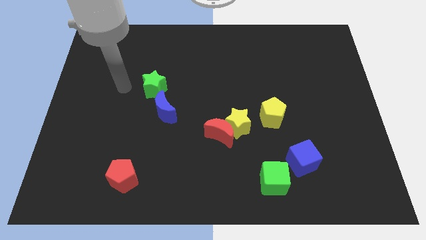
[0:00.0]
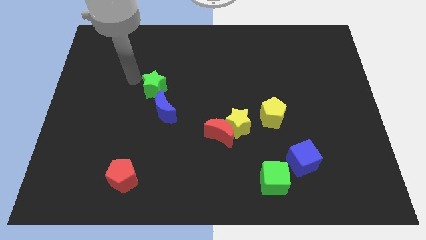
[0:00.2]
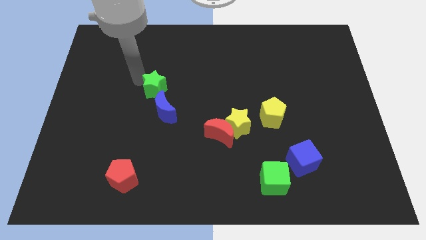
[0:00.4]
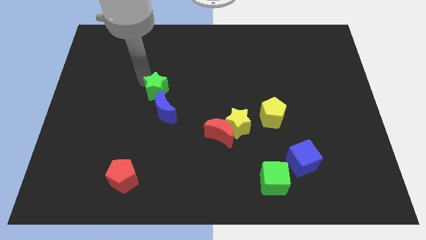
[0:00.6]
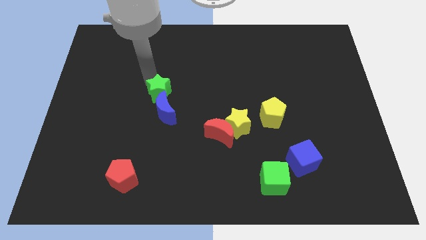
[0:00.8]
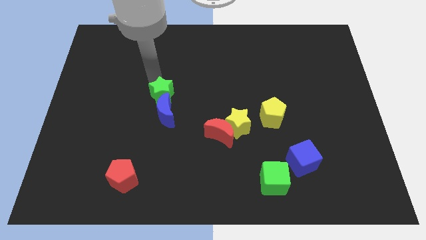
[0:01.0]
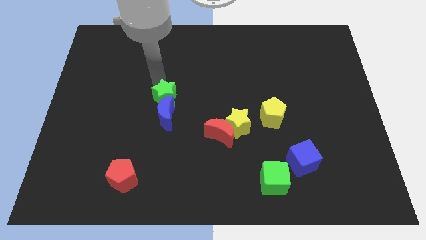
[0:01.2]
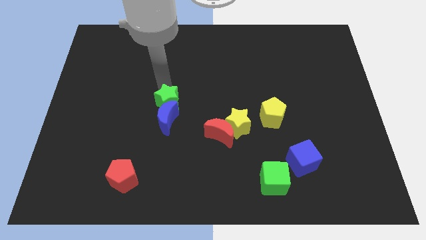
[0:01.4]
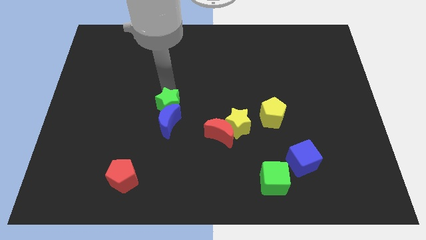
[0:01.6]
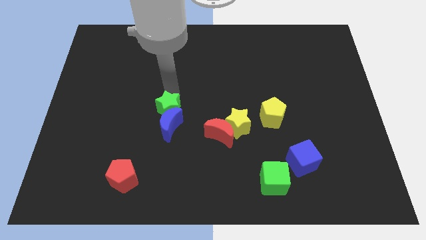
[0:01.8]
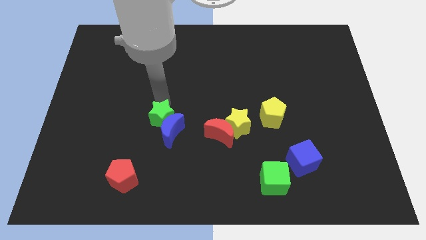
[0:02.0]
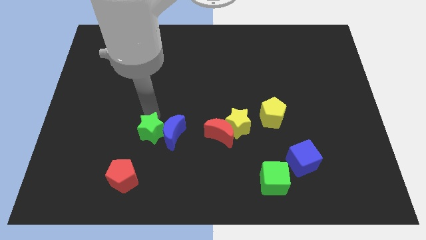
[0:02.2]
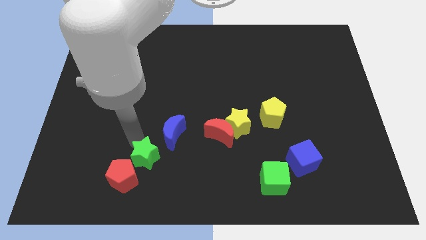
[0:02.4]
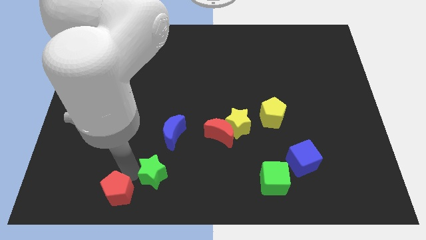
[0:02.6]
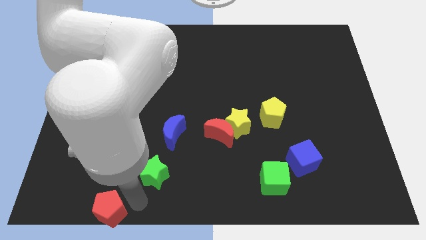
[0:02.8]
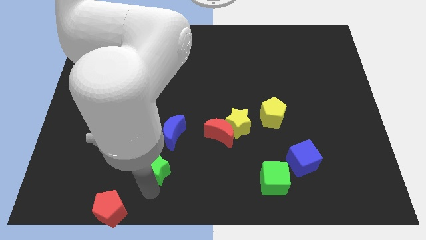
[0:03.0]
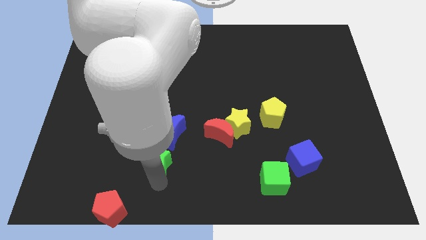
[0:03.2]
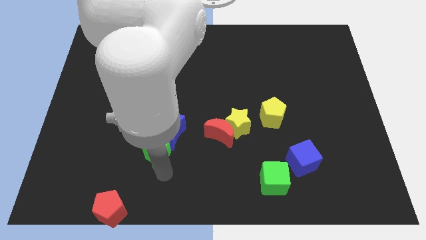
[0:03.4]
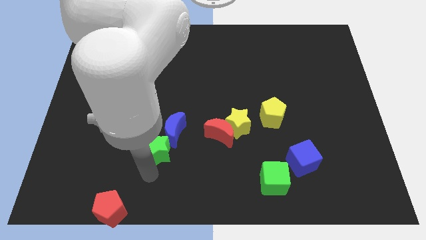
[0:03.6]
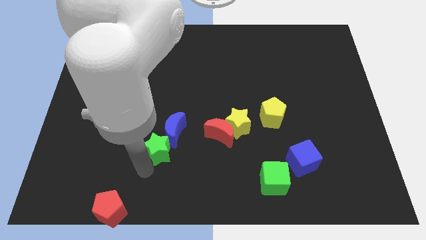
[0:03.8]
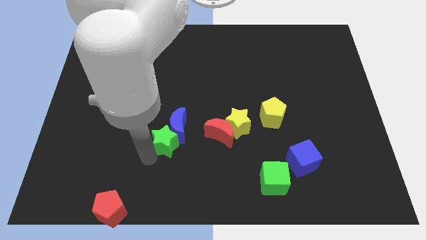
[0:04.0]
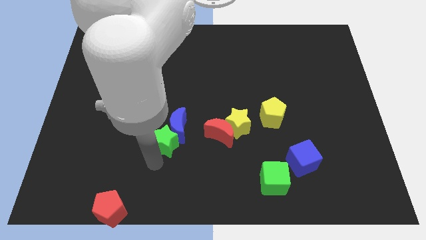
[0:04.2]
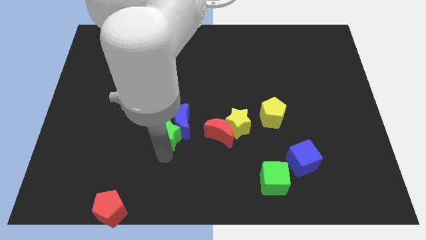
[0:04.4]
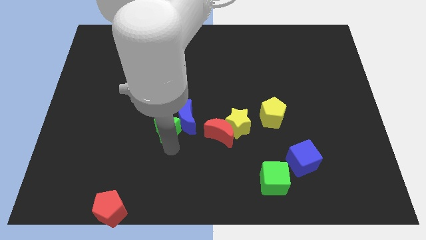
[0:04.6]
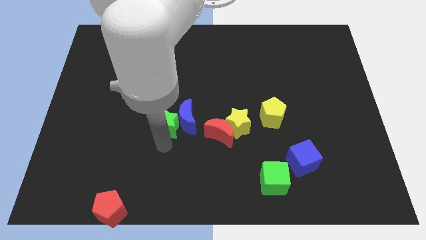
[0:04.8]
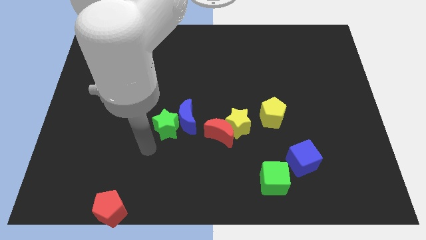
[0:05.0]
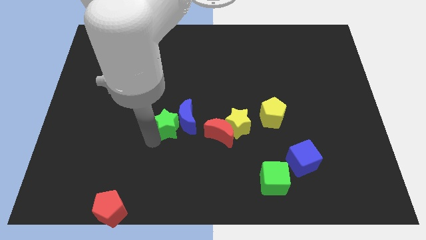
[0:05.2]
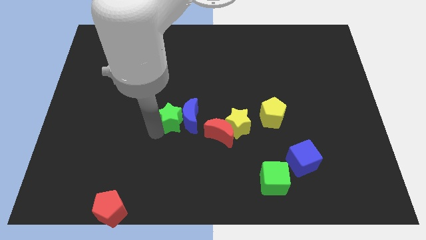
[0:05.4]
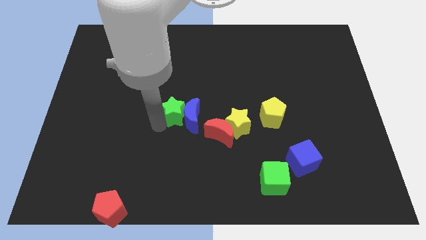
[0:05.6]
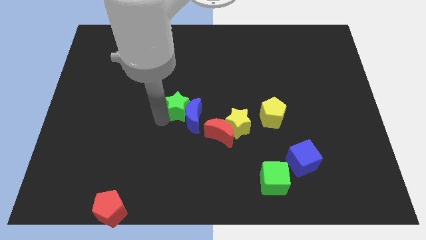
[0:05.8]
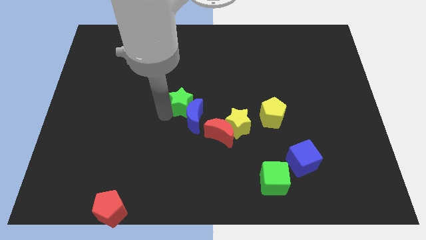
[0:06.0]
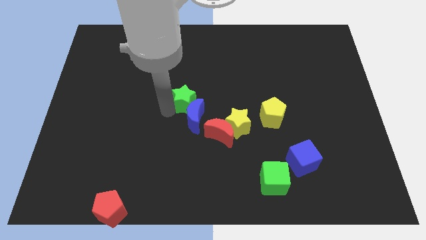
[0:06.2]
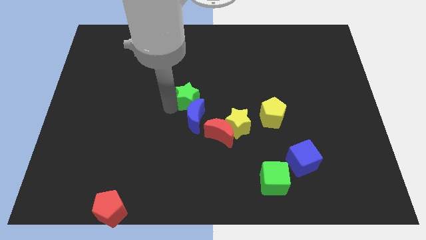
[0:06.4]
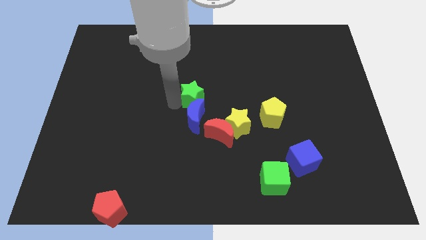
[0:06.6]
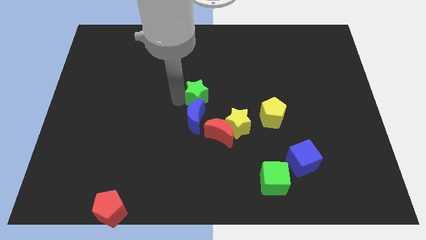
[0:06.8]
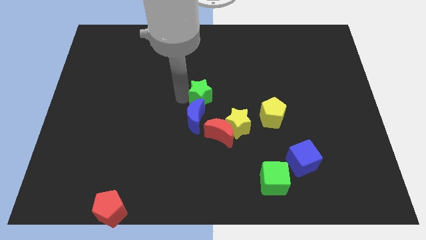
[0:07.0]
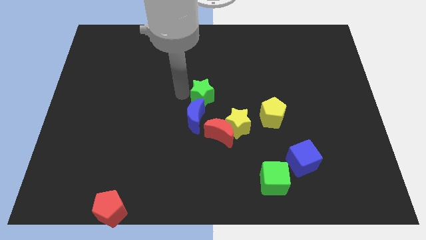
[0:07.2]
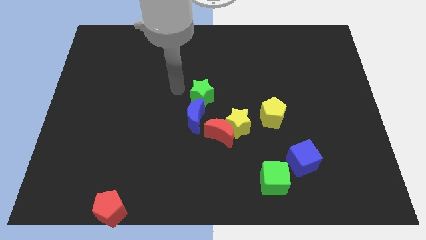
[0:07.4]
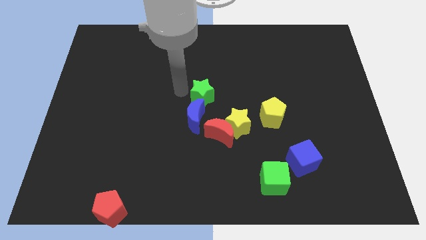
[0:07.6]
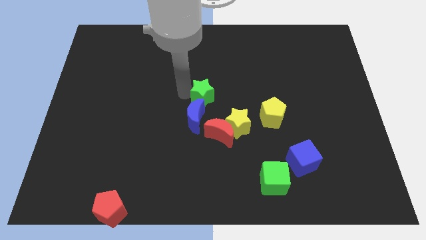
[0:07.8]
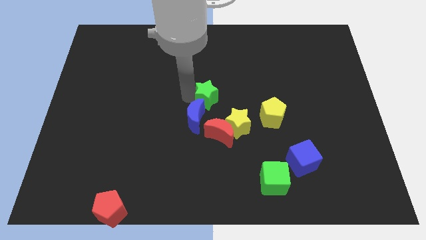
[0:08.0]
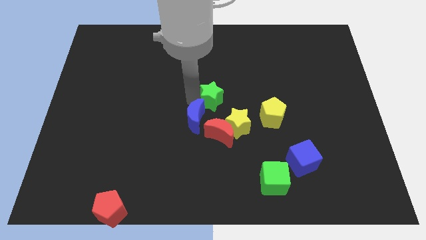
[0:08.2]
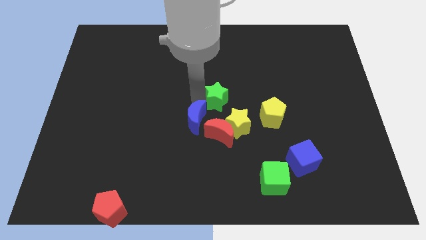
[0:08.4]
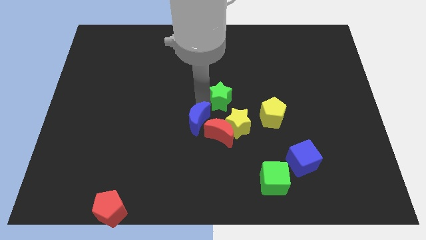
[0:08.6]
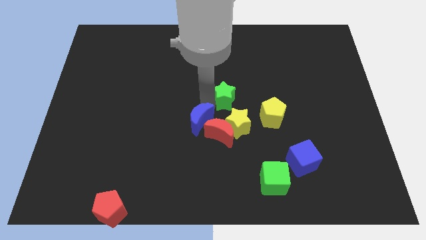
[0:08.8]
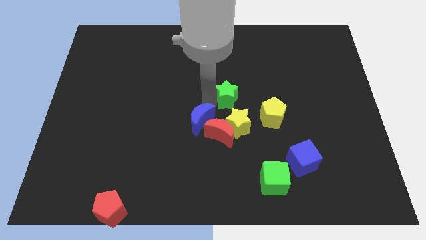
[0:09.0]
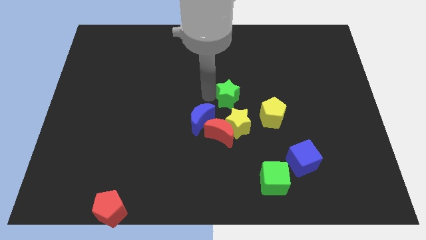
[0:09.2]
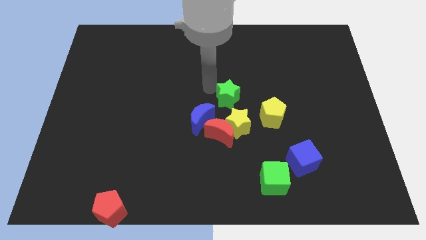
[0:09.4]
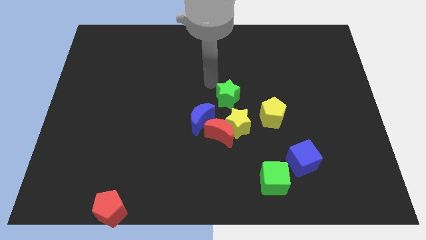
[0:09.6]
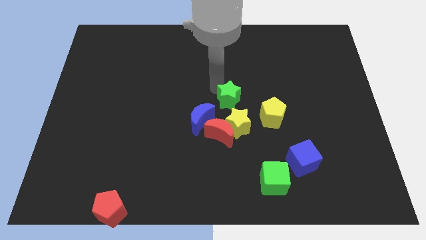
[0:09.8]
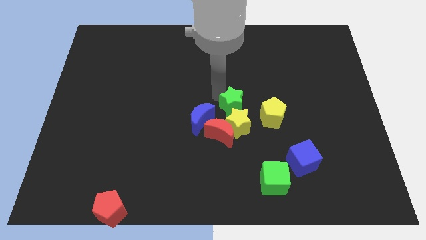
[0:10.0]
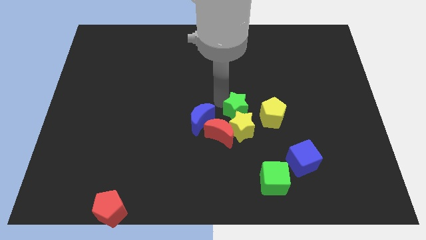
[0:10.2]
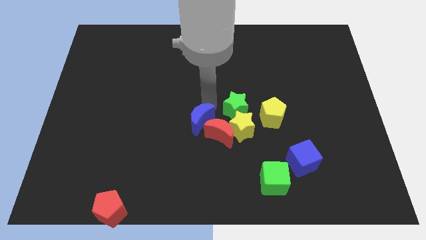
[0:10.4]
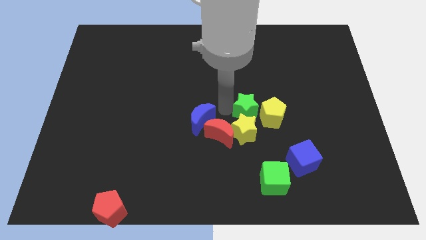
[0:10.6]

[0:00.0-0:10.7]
push the green star to the yellow pentagon

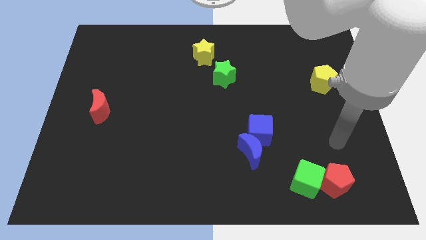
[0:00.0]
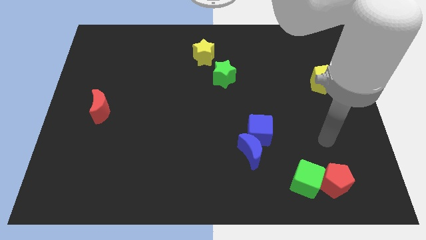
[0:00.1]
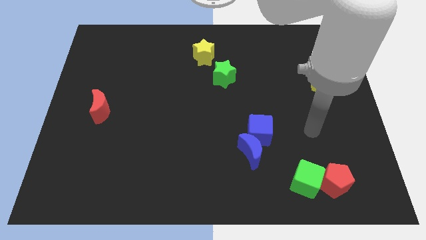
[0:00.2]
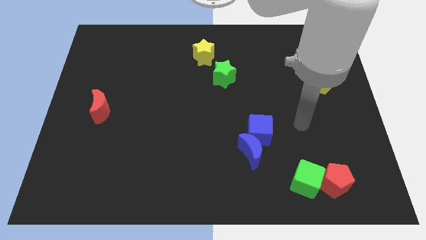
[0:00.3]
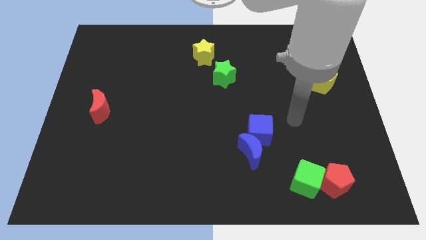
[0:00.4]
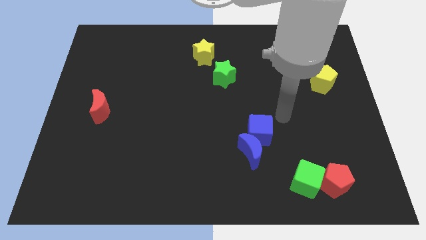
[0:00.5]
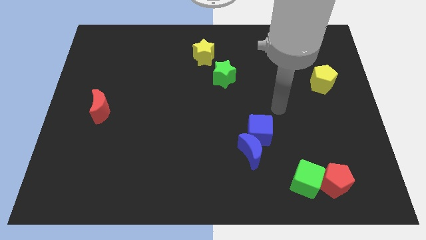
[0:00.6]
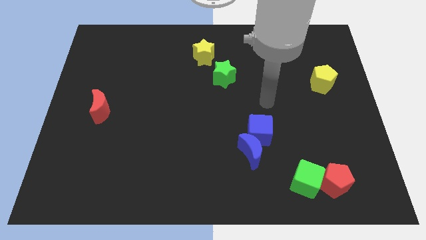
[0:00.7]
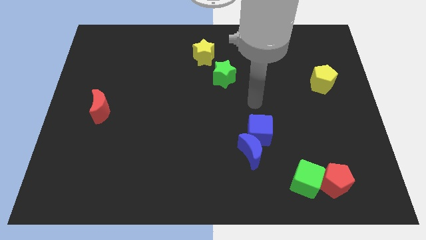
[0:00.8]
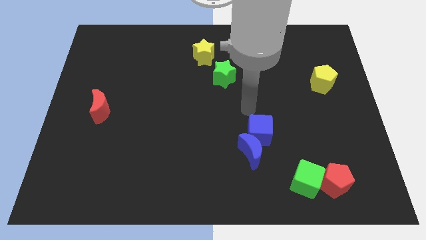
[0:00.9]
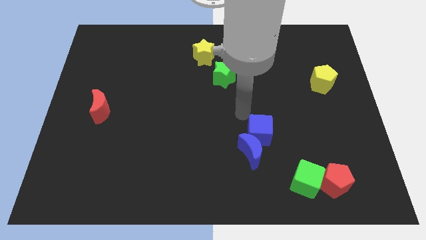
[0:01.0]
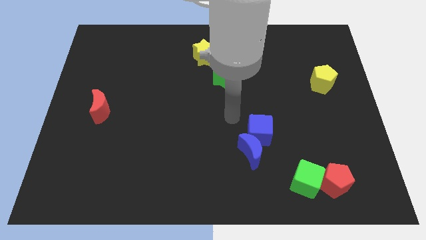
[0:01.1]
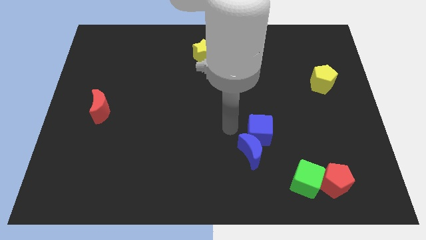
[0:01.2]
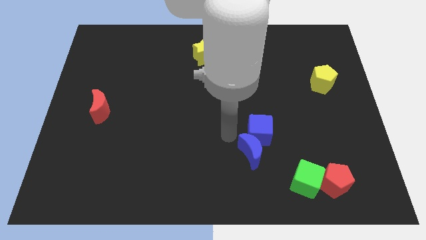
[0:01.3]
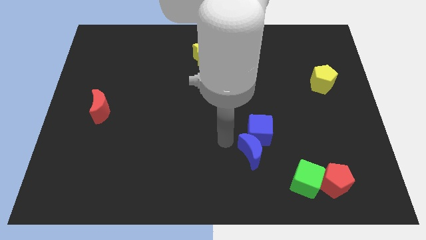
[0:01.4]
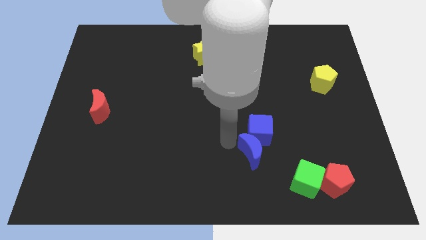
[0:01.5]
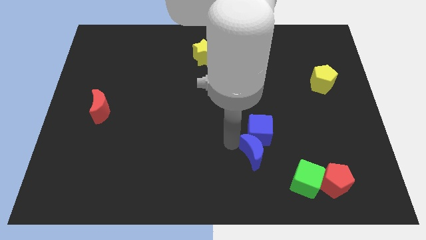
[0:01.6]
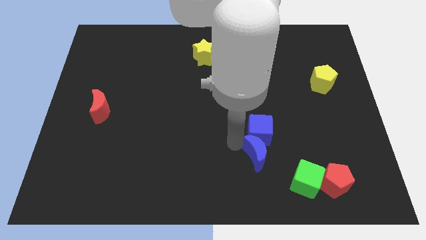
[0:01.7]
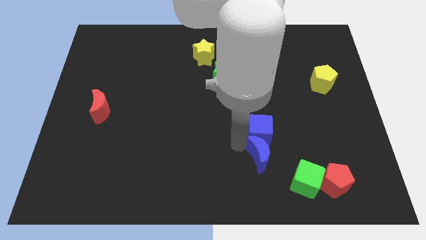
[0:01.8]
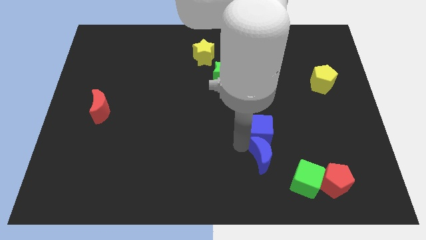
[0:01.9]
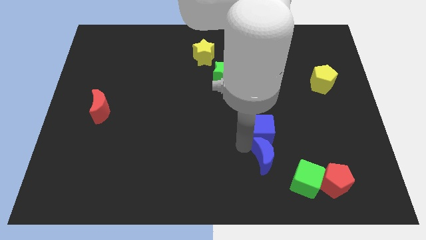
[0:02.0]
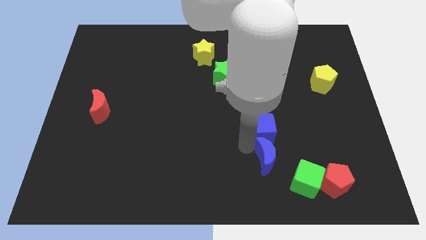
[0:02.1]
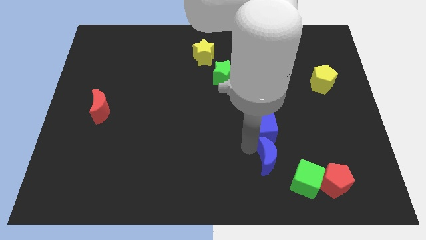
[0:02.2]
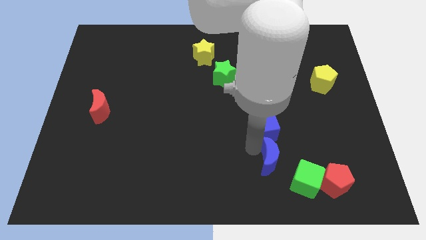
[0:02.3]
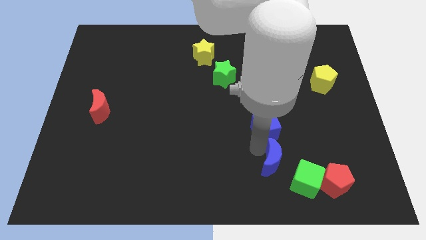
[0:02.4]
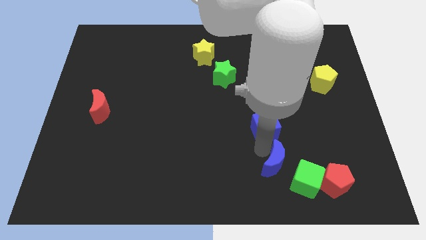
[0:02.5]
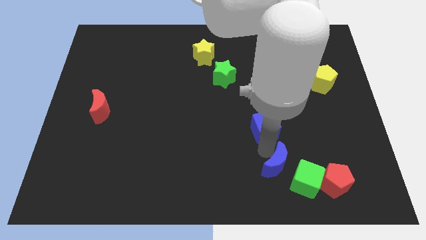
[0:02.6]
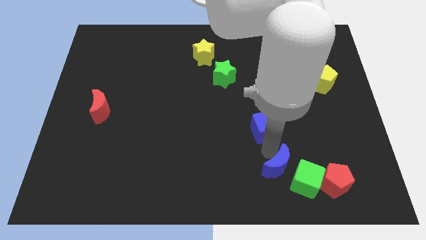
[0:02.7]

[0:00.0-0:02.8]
push the blue moon close to the green cube
